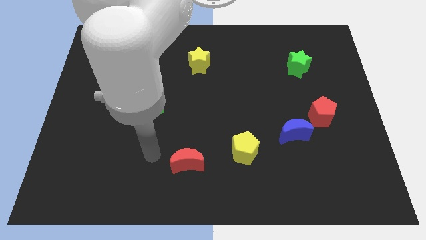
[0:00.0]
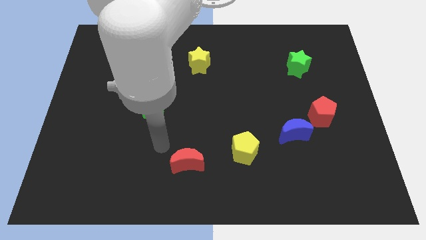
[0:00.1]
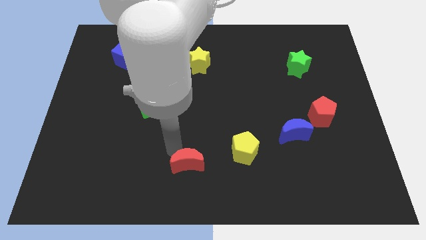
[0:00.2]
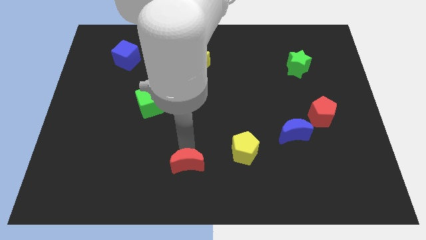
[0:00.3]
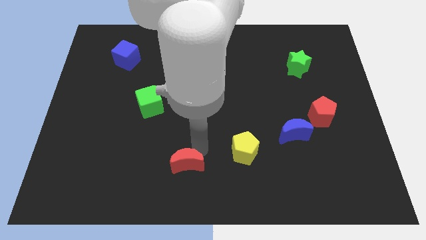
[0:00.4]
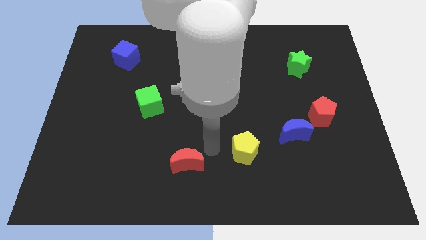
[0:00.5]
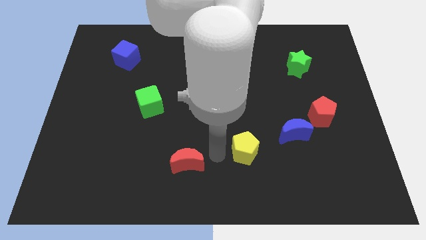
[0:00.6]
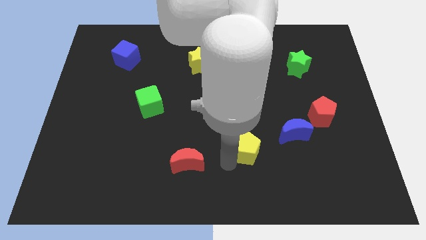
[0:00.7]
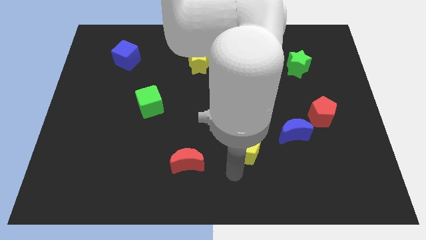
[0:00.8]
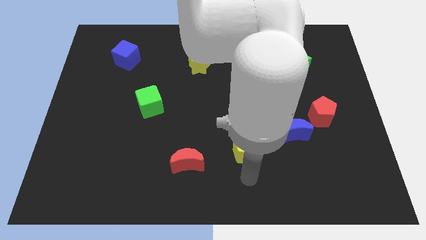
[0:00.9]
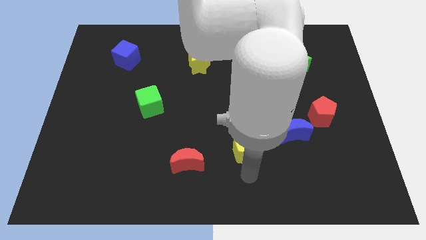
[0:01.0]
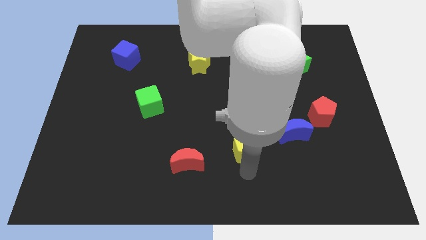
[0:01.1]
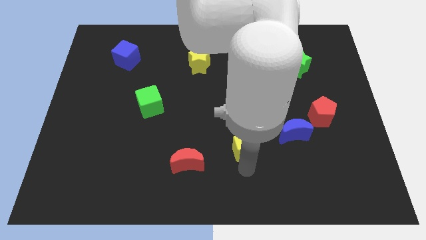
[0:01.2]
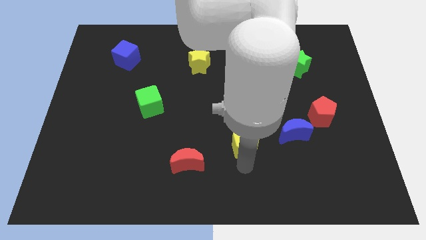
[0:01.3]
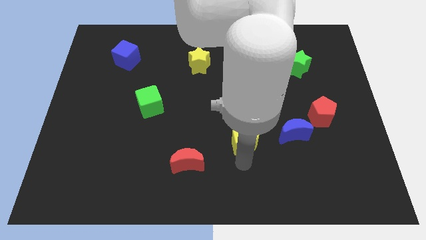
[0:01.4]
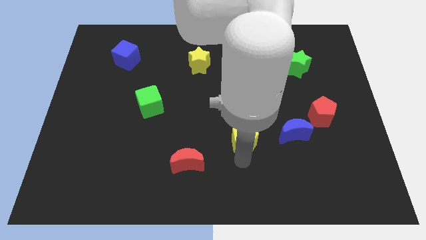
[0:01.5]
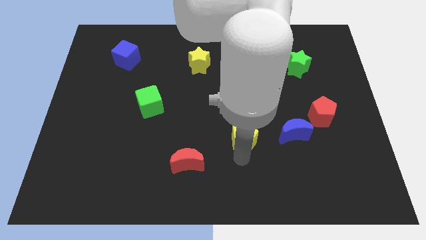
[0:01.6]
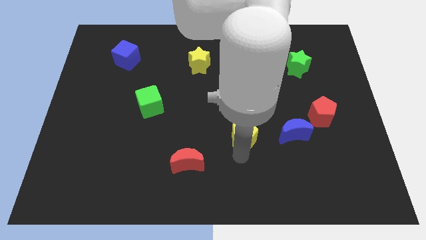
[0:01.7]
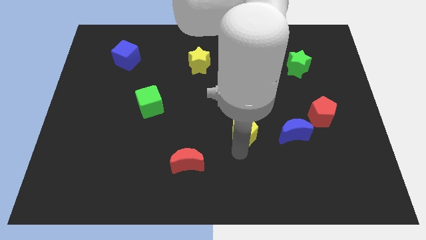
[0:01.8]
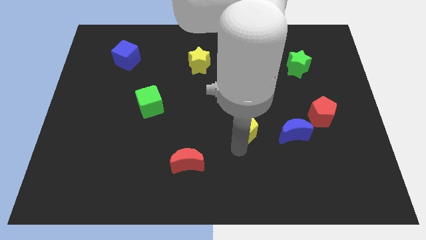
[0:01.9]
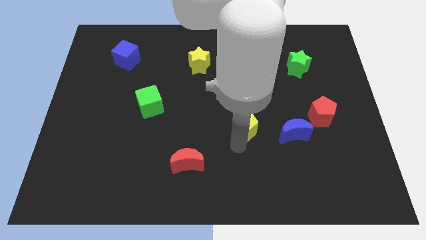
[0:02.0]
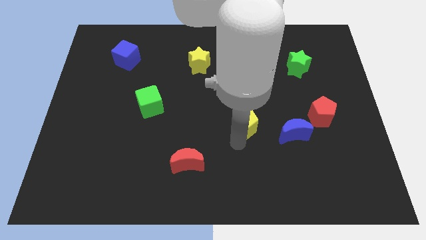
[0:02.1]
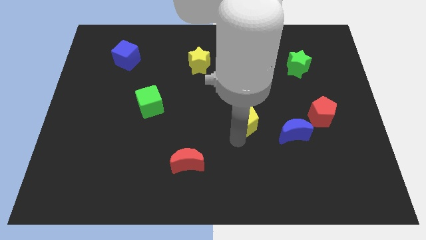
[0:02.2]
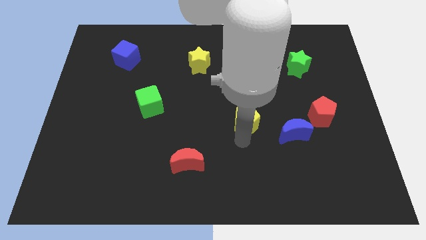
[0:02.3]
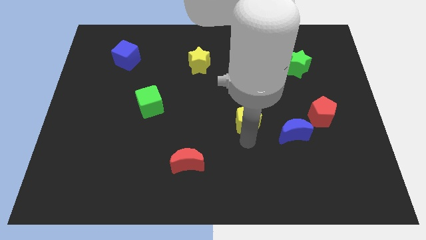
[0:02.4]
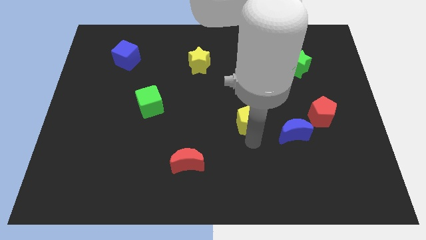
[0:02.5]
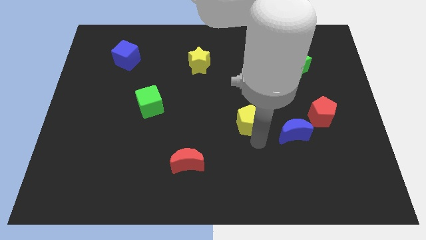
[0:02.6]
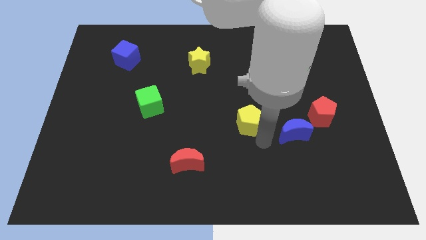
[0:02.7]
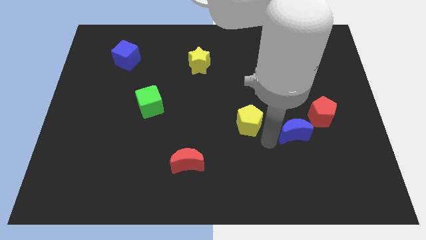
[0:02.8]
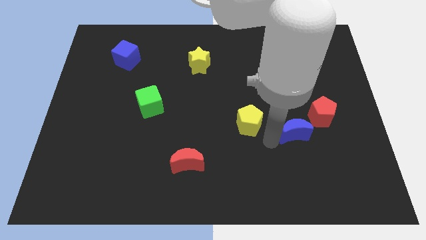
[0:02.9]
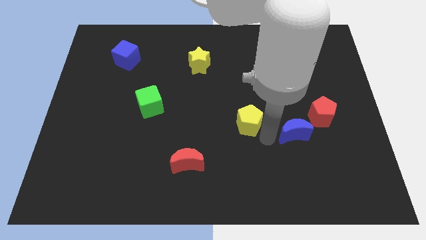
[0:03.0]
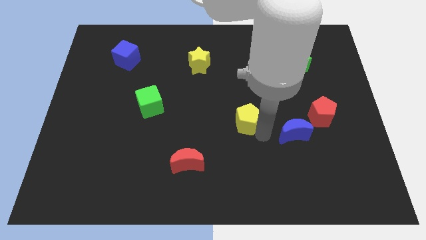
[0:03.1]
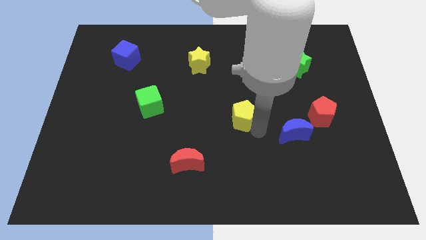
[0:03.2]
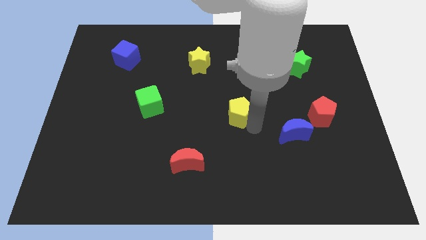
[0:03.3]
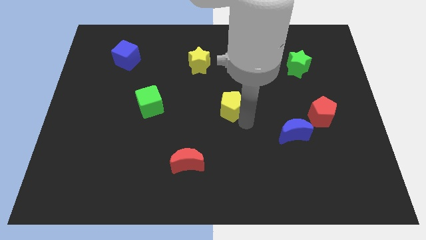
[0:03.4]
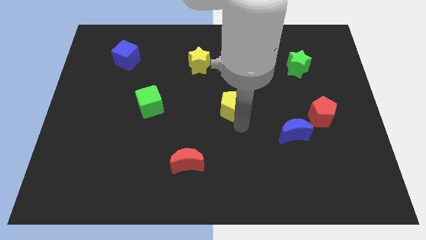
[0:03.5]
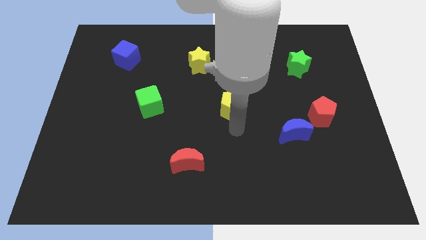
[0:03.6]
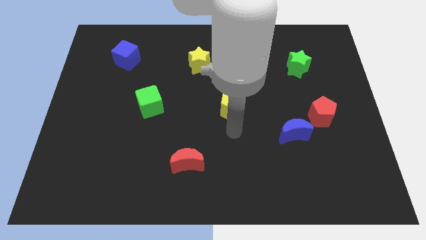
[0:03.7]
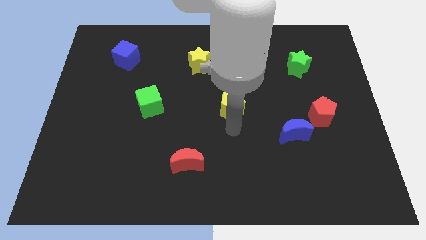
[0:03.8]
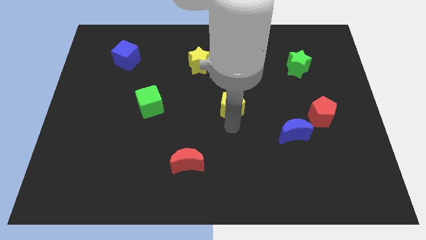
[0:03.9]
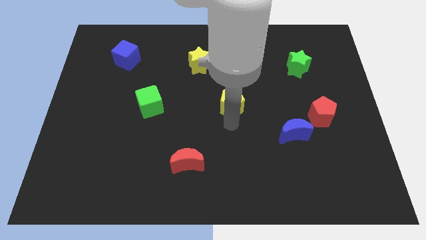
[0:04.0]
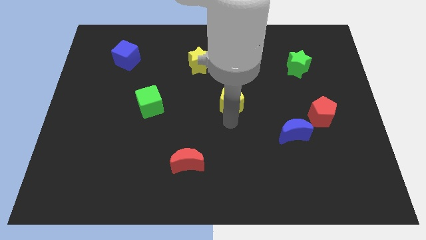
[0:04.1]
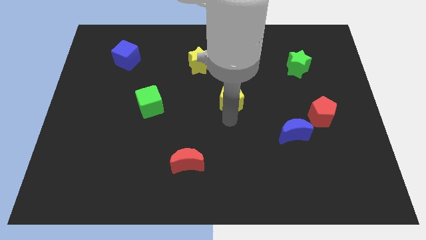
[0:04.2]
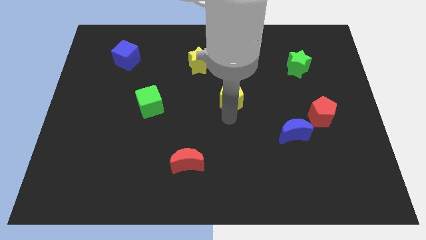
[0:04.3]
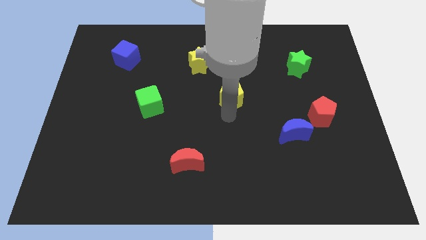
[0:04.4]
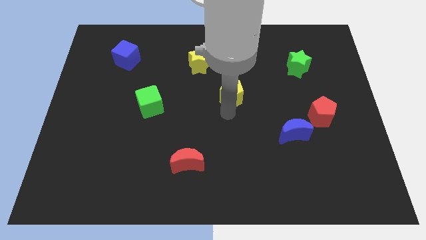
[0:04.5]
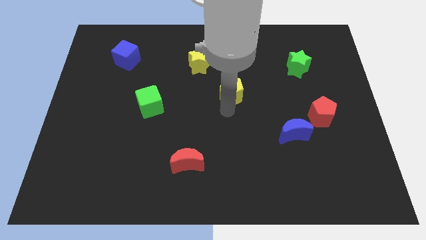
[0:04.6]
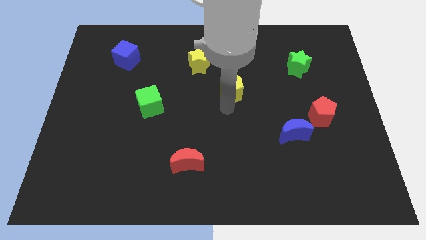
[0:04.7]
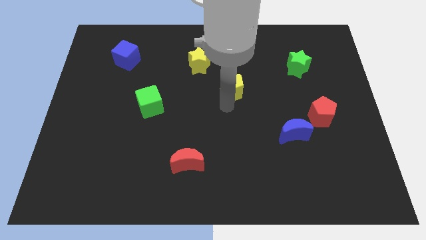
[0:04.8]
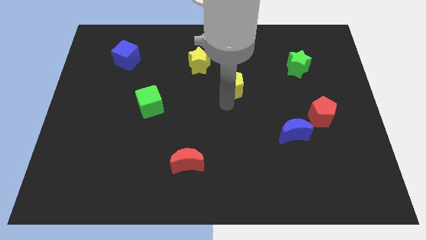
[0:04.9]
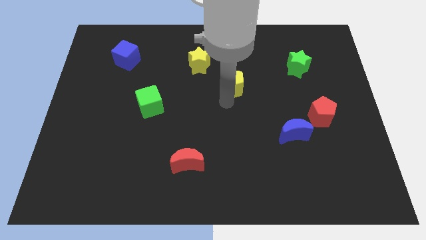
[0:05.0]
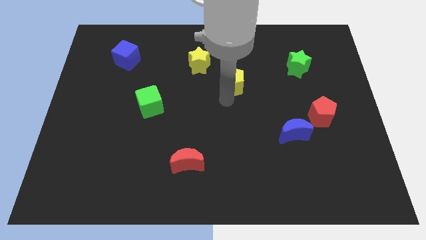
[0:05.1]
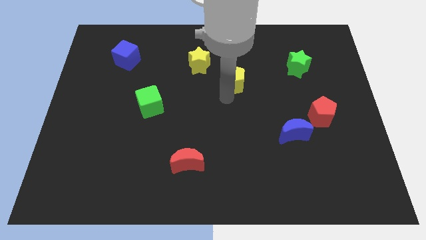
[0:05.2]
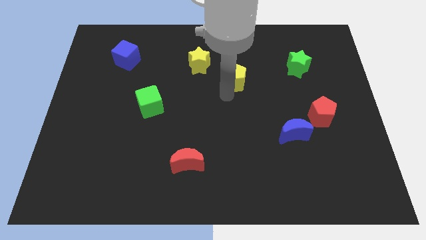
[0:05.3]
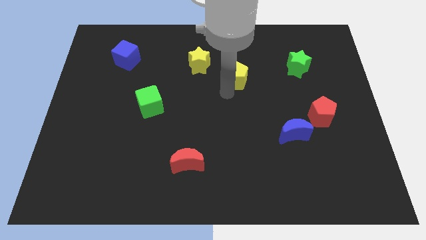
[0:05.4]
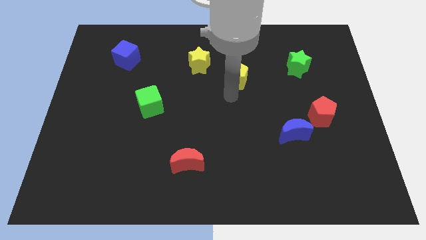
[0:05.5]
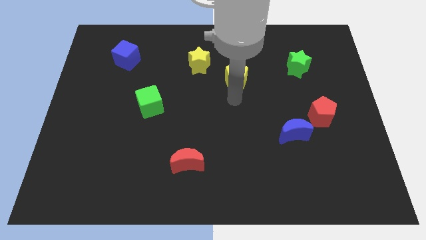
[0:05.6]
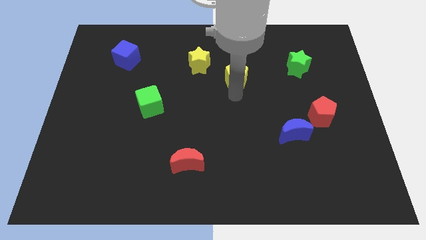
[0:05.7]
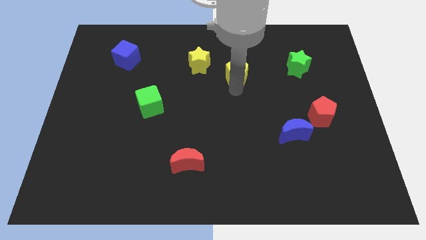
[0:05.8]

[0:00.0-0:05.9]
put the yellow pentagon to the right of the yellow star

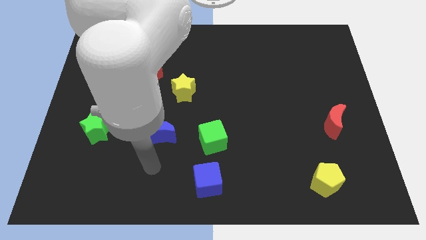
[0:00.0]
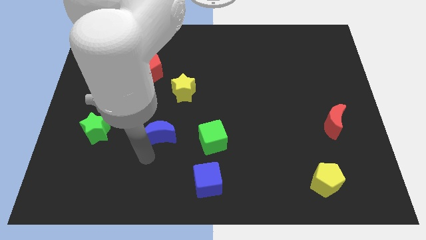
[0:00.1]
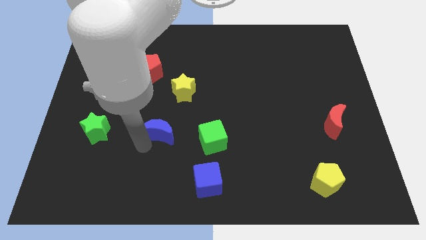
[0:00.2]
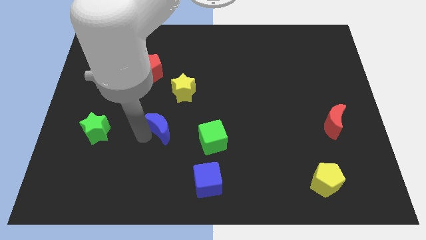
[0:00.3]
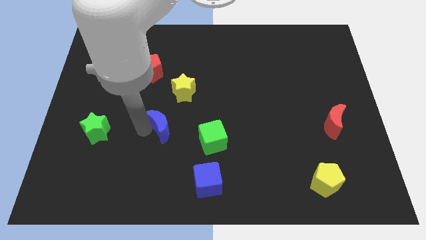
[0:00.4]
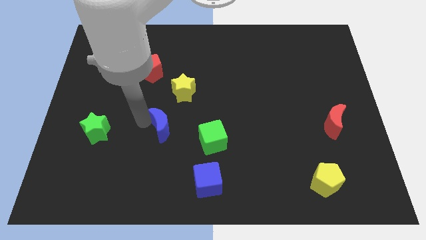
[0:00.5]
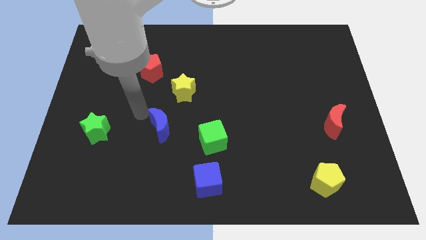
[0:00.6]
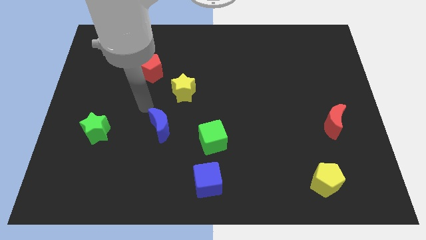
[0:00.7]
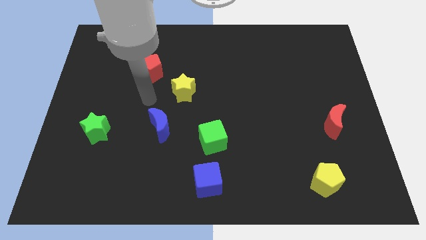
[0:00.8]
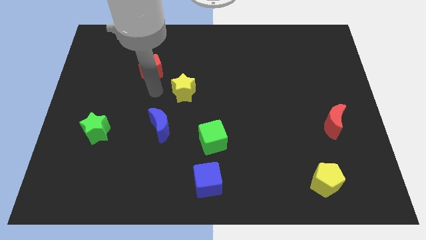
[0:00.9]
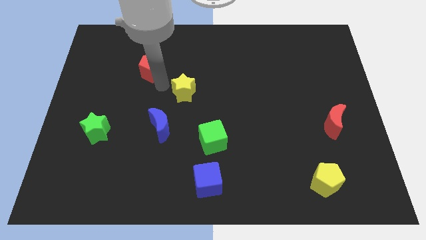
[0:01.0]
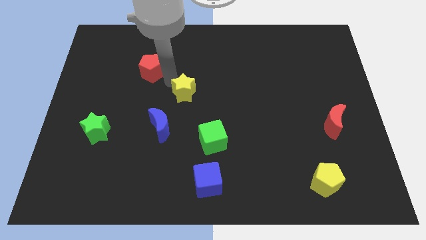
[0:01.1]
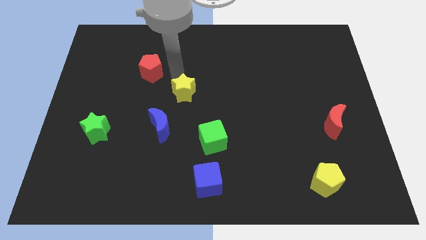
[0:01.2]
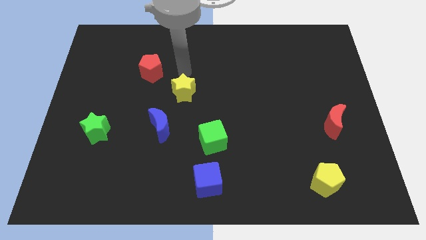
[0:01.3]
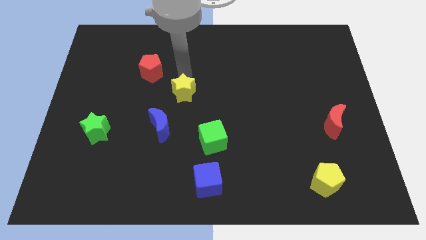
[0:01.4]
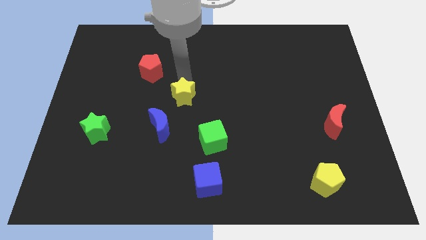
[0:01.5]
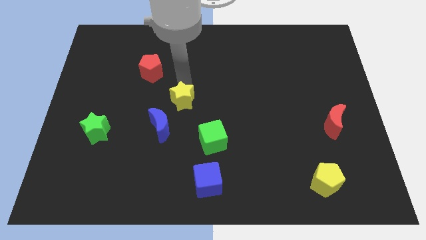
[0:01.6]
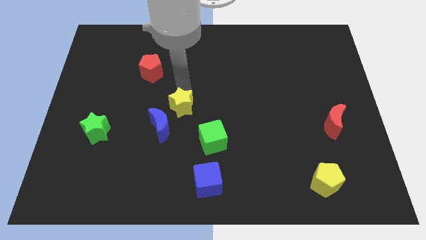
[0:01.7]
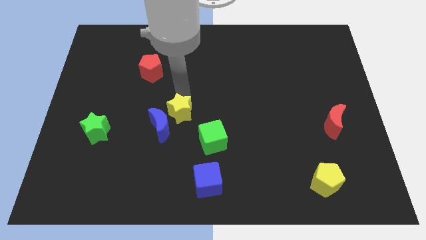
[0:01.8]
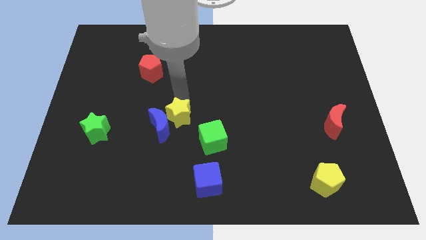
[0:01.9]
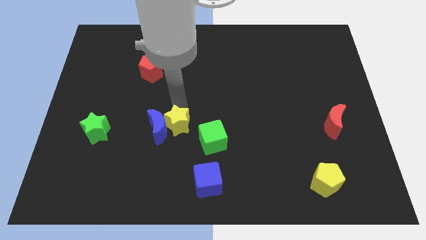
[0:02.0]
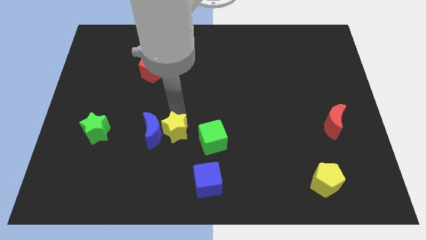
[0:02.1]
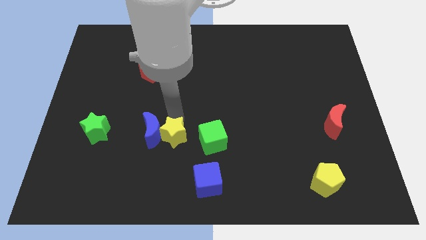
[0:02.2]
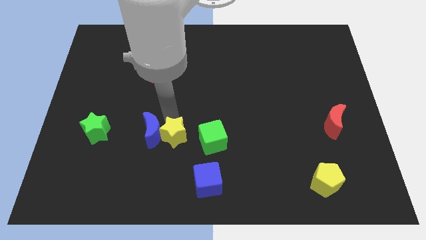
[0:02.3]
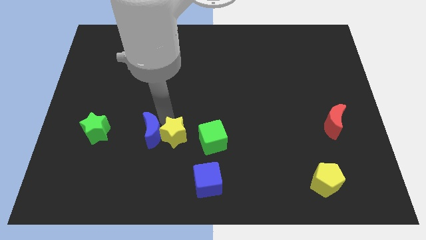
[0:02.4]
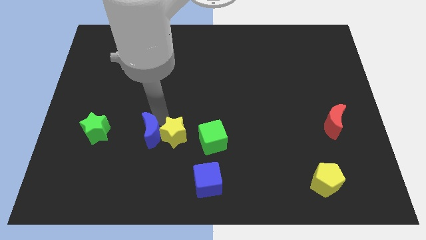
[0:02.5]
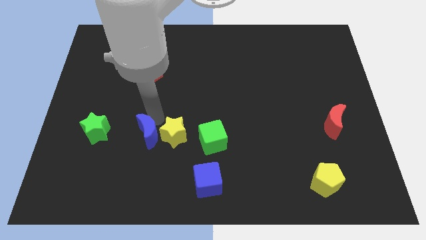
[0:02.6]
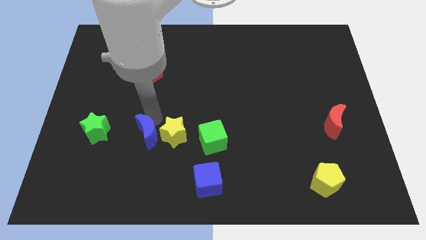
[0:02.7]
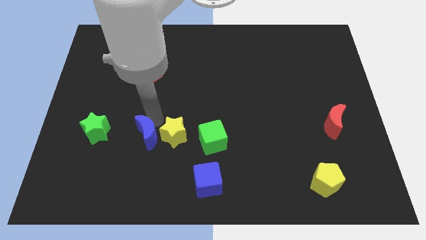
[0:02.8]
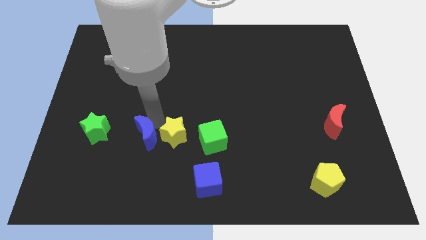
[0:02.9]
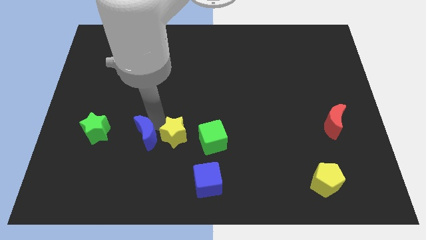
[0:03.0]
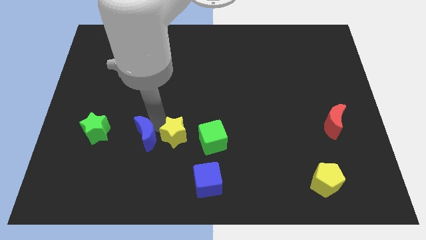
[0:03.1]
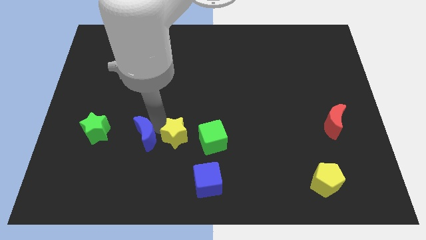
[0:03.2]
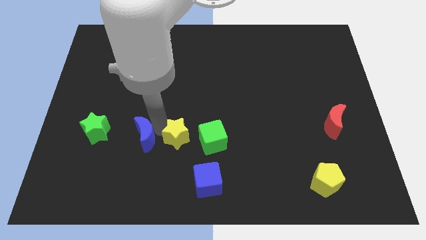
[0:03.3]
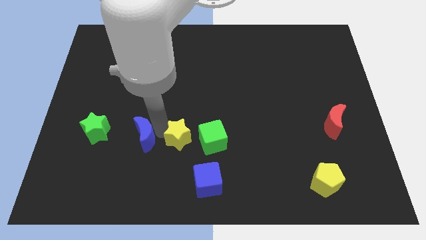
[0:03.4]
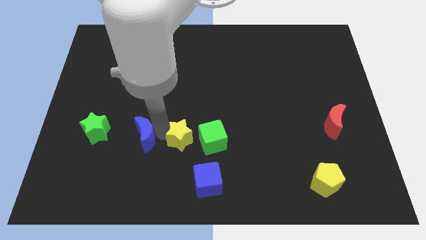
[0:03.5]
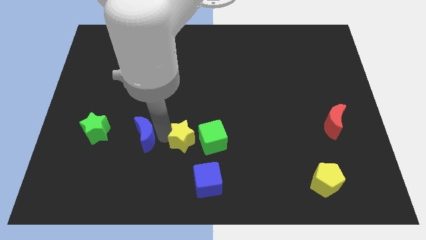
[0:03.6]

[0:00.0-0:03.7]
put the yellow star to the top left of the blue cube
